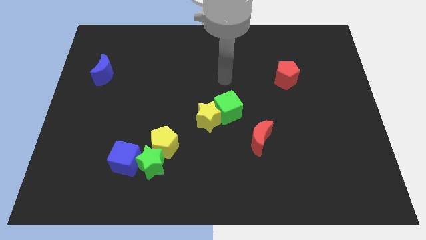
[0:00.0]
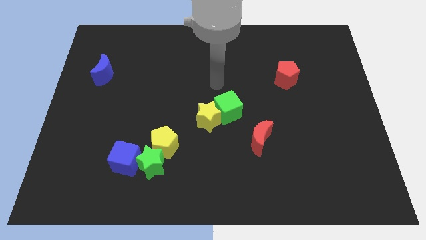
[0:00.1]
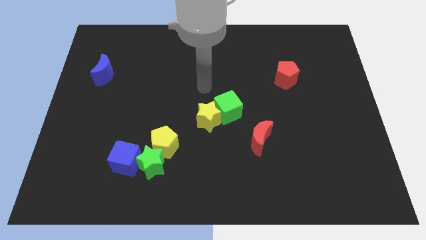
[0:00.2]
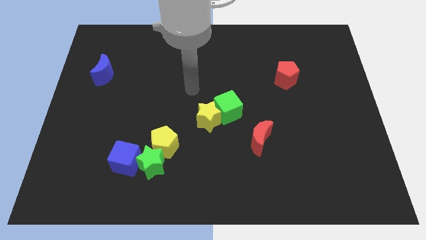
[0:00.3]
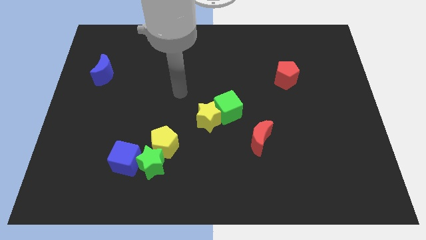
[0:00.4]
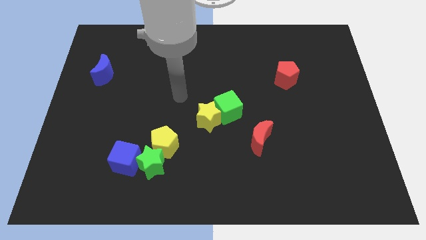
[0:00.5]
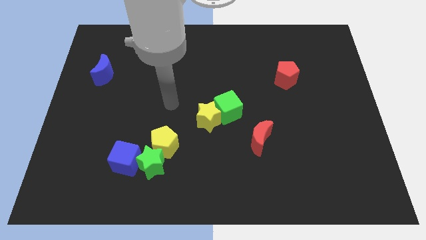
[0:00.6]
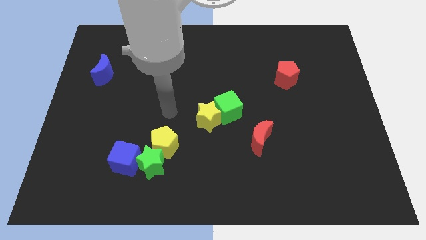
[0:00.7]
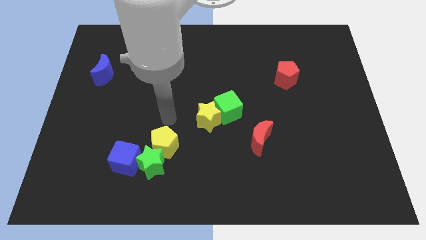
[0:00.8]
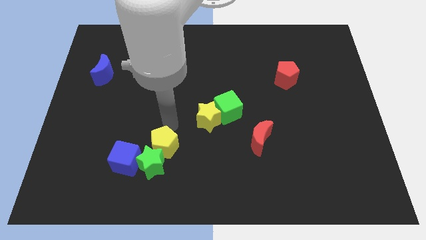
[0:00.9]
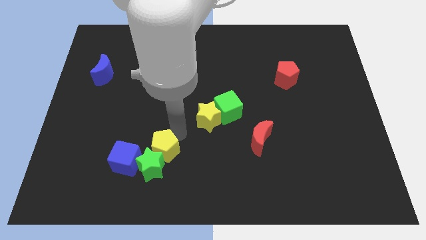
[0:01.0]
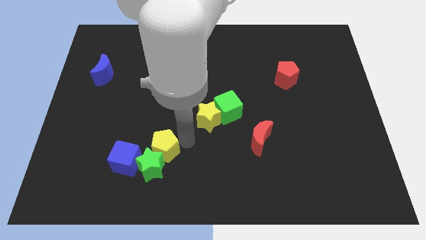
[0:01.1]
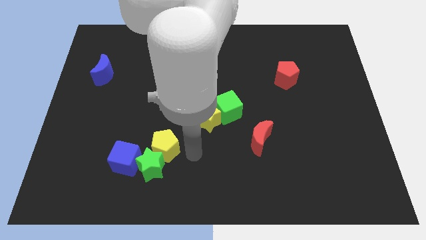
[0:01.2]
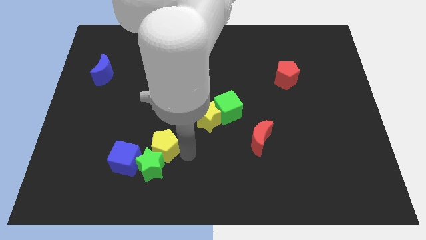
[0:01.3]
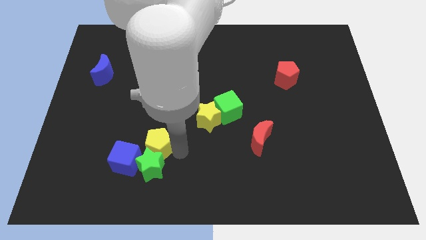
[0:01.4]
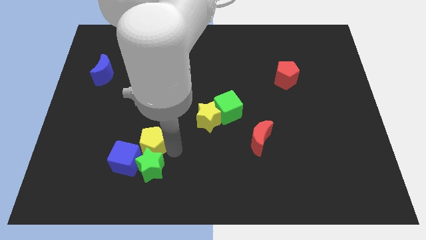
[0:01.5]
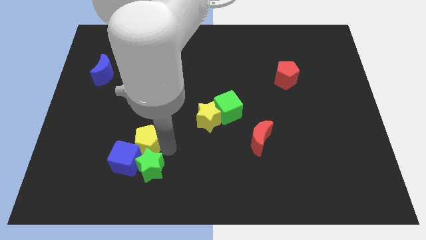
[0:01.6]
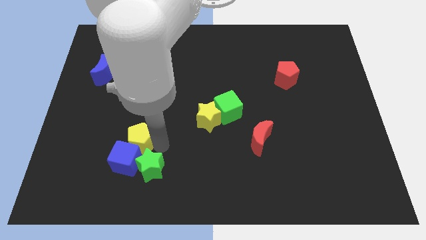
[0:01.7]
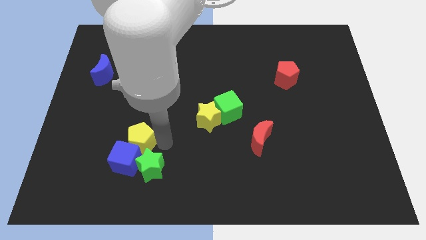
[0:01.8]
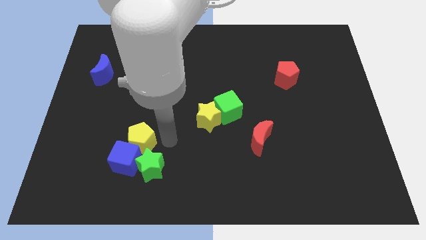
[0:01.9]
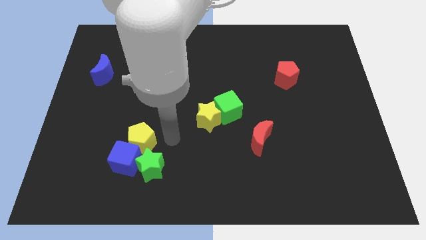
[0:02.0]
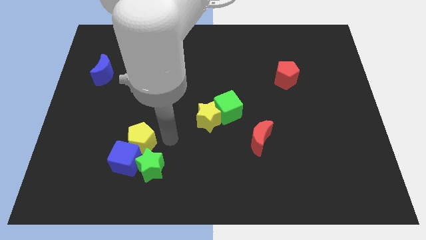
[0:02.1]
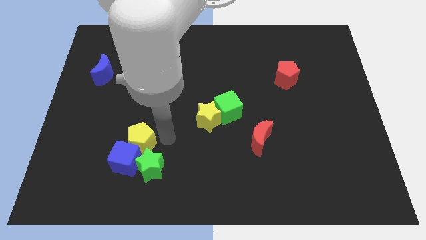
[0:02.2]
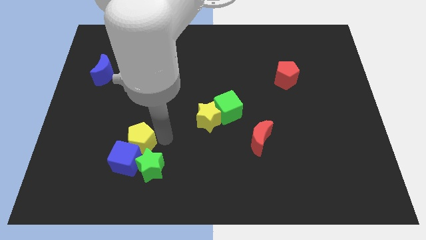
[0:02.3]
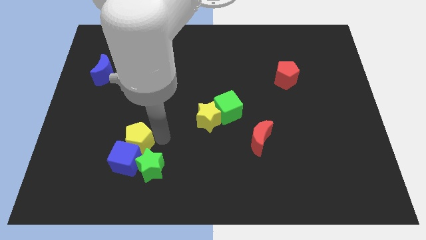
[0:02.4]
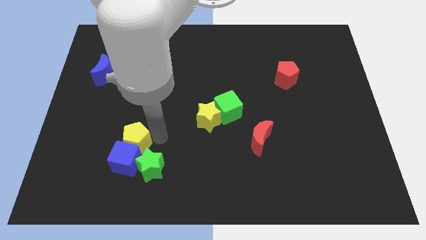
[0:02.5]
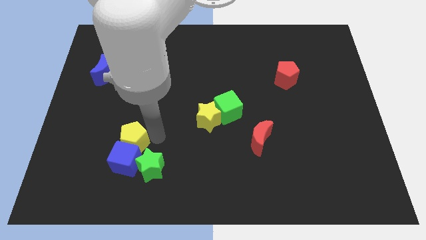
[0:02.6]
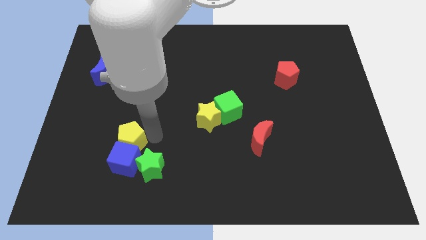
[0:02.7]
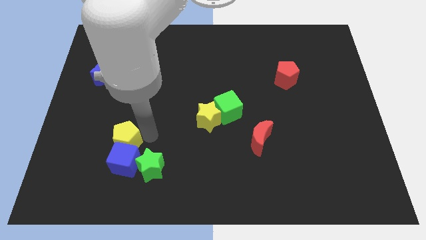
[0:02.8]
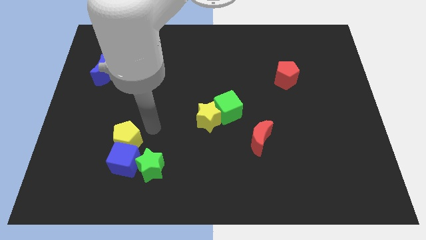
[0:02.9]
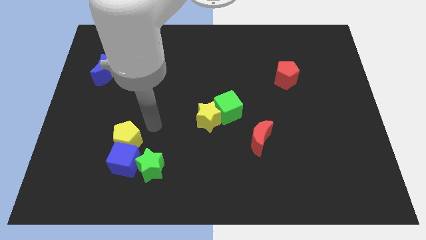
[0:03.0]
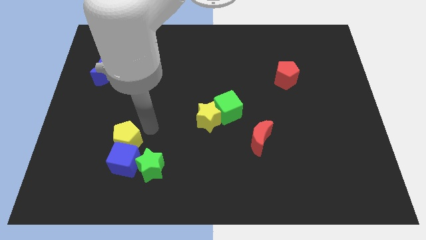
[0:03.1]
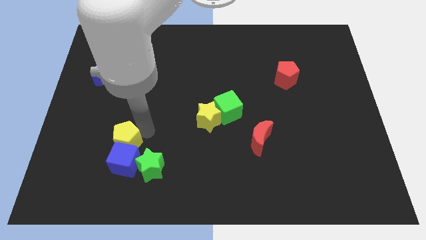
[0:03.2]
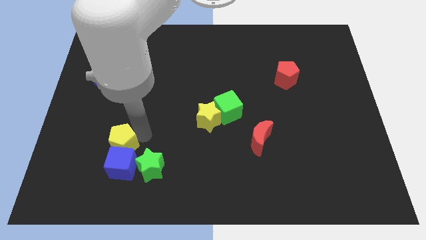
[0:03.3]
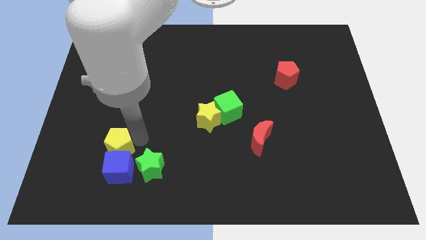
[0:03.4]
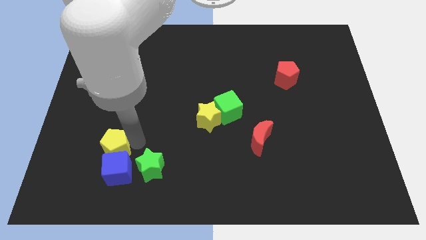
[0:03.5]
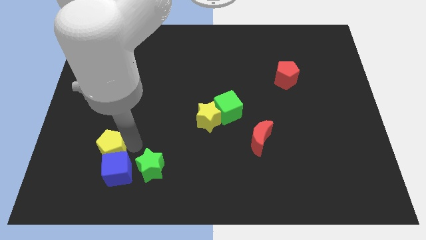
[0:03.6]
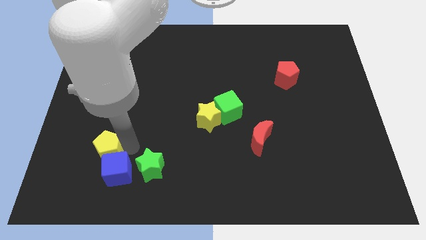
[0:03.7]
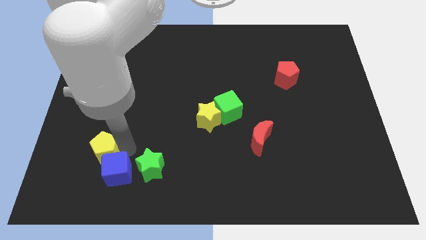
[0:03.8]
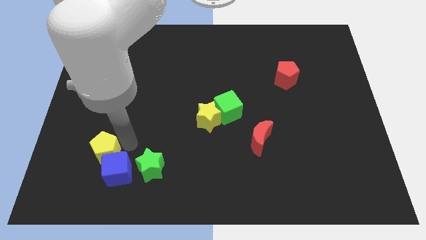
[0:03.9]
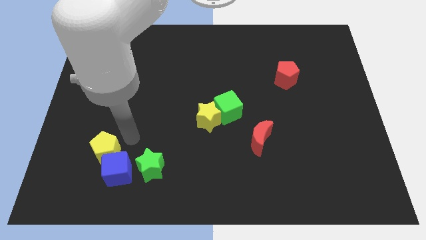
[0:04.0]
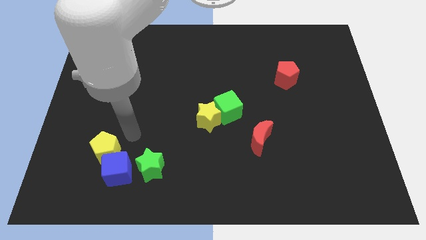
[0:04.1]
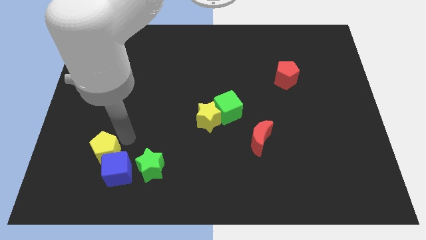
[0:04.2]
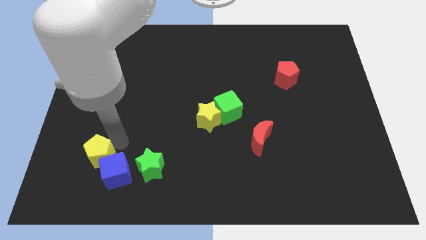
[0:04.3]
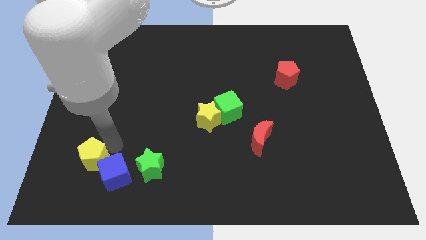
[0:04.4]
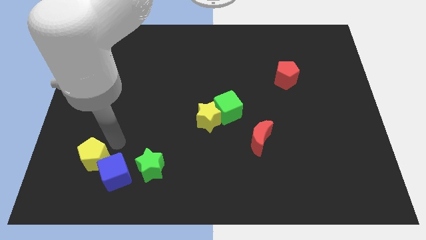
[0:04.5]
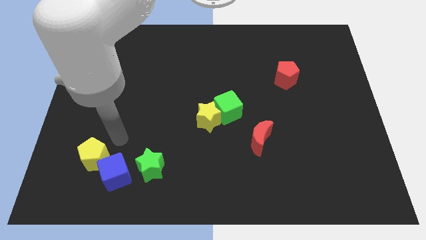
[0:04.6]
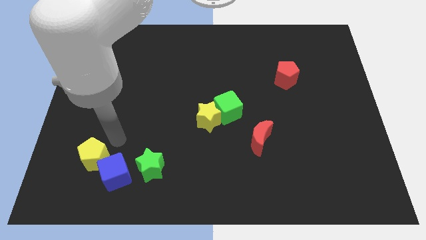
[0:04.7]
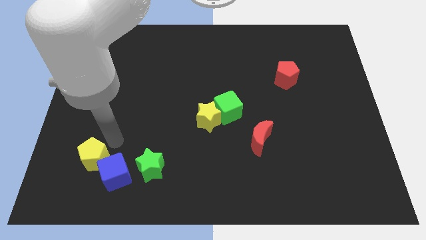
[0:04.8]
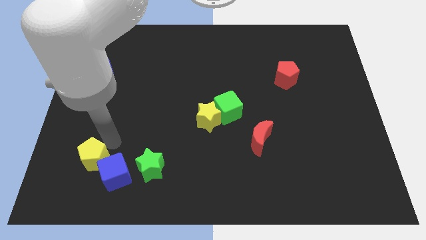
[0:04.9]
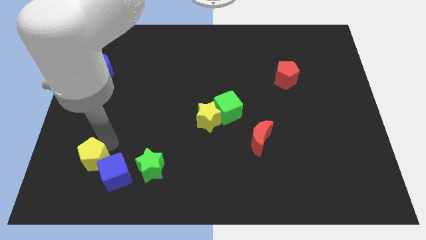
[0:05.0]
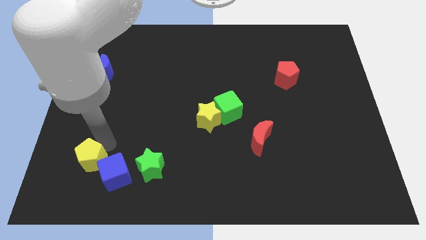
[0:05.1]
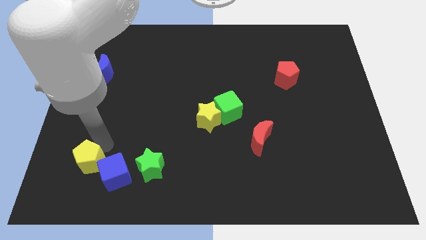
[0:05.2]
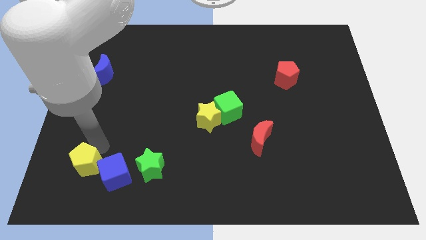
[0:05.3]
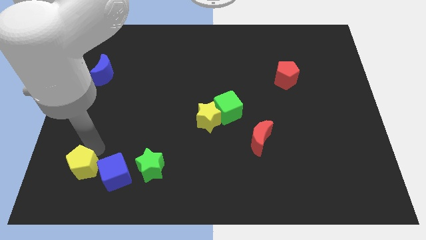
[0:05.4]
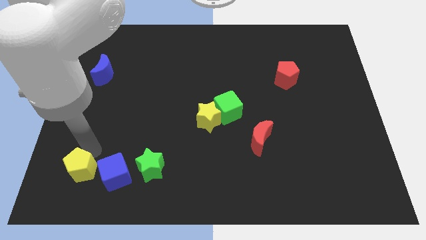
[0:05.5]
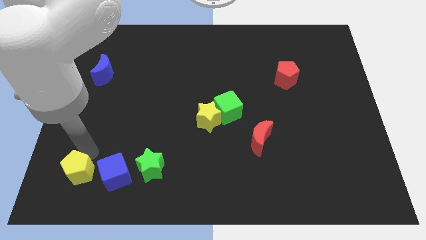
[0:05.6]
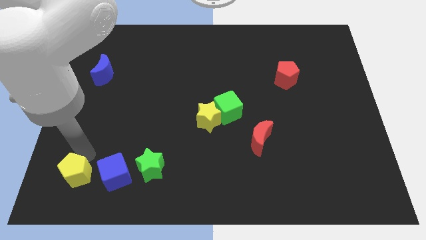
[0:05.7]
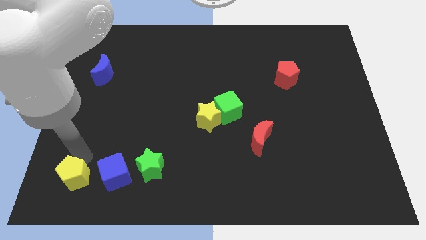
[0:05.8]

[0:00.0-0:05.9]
slide the yellow pentagon to the lower left corner
